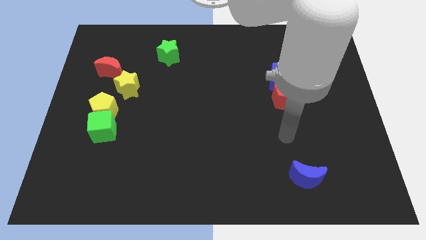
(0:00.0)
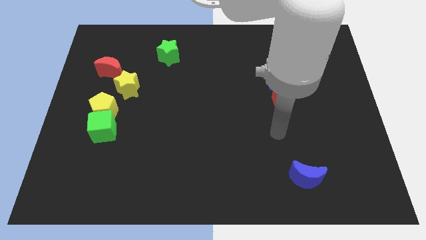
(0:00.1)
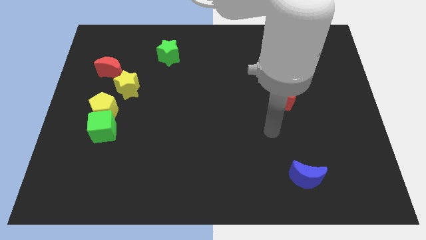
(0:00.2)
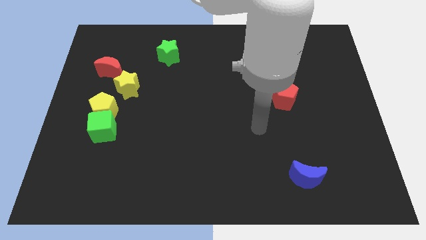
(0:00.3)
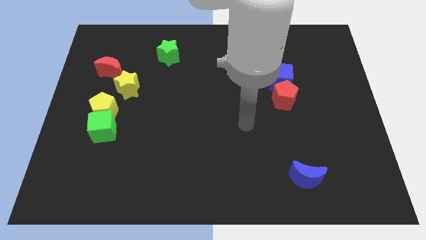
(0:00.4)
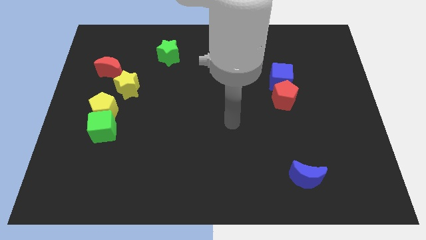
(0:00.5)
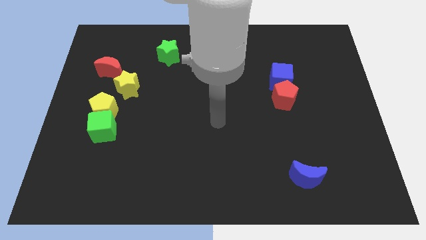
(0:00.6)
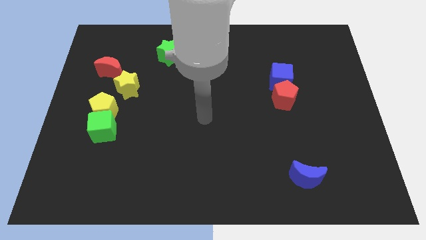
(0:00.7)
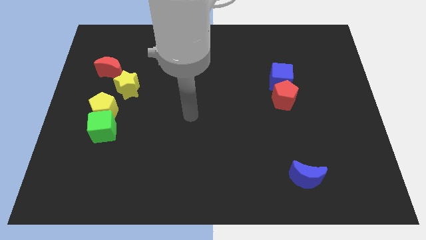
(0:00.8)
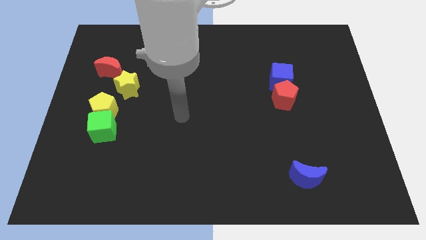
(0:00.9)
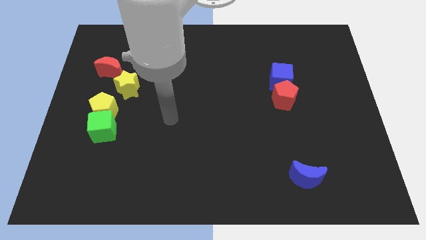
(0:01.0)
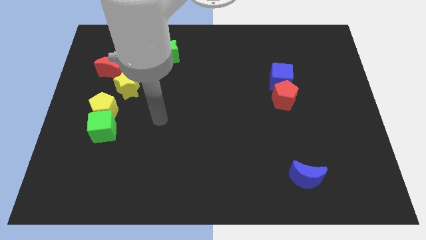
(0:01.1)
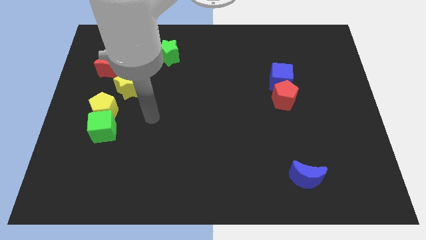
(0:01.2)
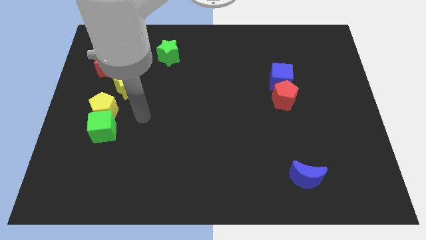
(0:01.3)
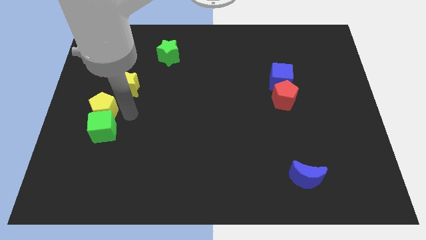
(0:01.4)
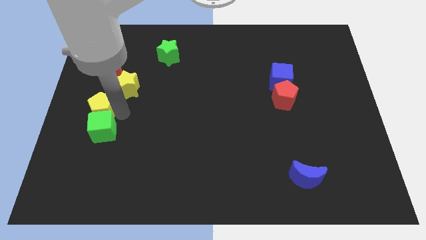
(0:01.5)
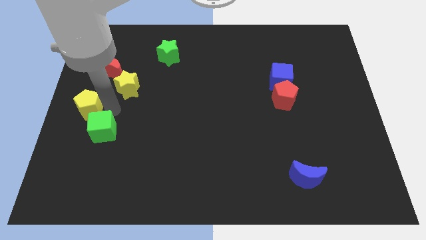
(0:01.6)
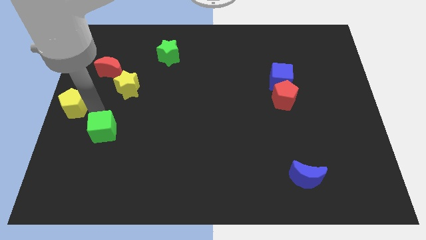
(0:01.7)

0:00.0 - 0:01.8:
pull the green cube apart from the yellow pentagon

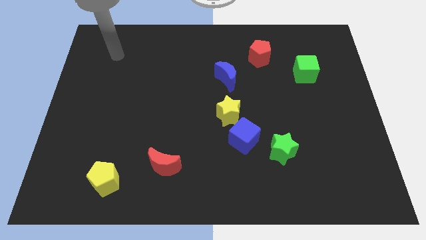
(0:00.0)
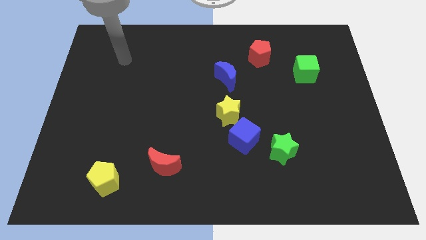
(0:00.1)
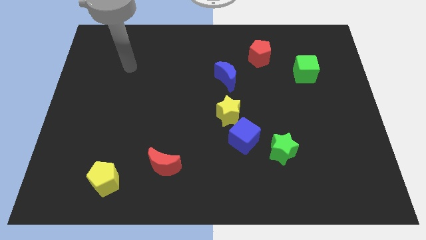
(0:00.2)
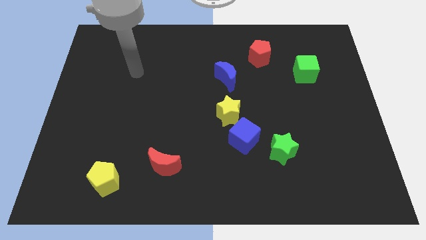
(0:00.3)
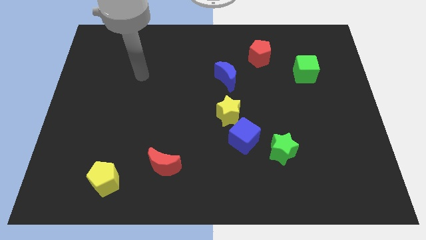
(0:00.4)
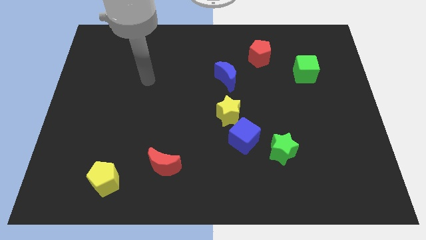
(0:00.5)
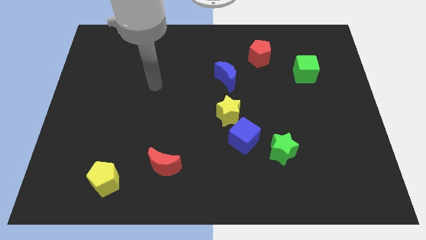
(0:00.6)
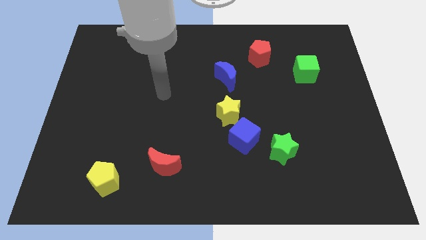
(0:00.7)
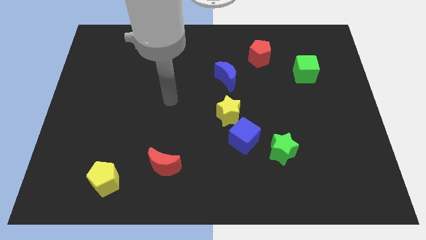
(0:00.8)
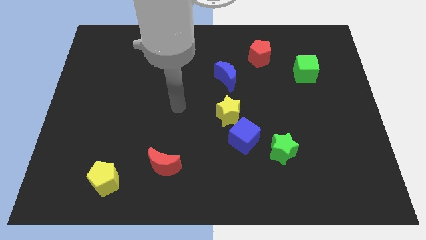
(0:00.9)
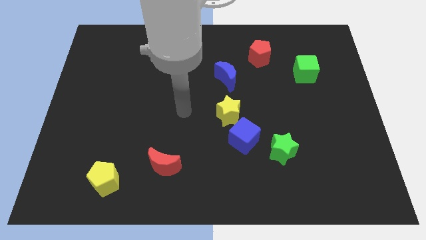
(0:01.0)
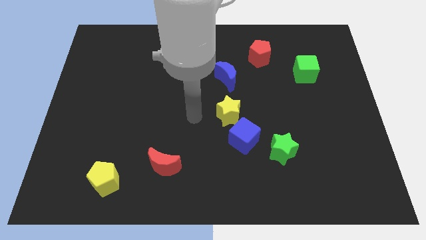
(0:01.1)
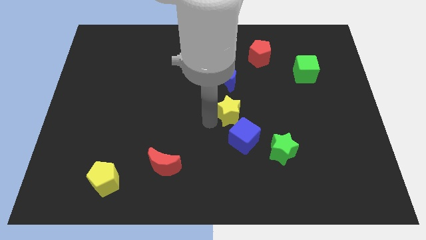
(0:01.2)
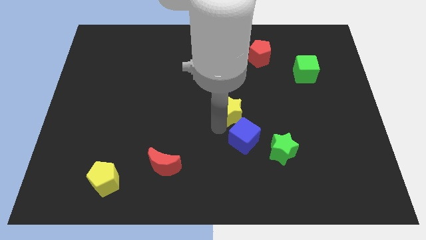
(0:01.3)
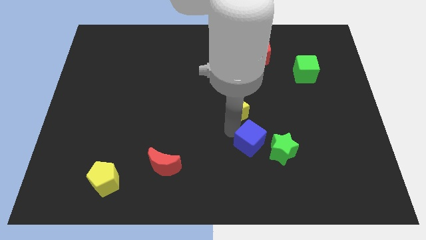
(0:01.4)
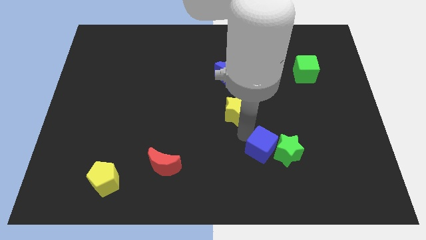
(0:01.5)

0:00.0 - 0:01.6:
move the yellow star away from the blue cube

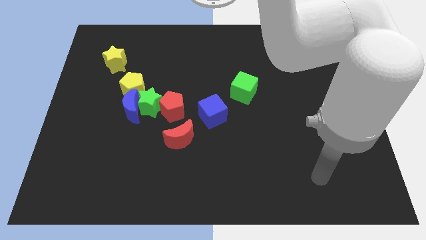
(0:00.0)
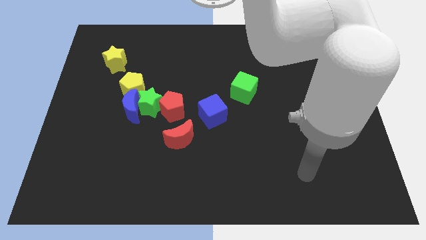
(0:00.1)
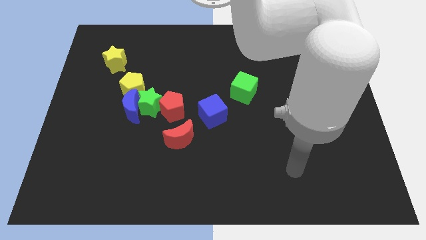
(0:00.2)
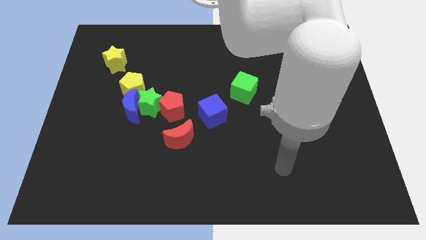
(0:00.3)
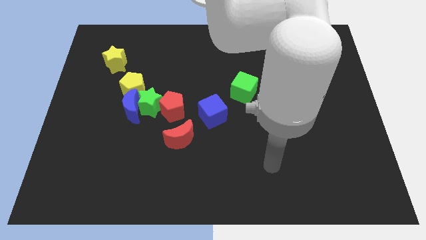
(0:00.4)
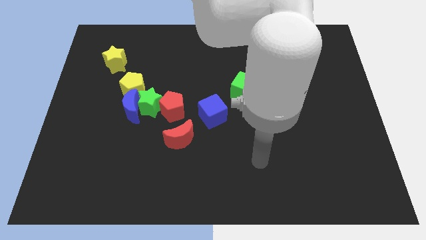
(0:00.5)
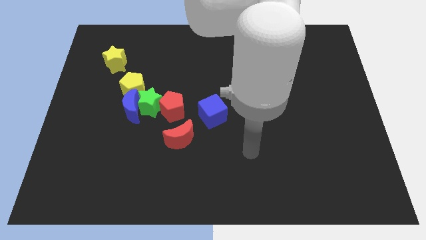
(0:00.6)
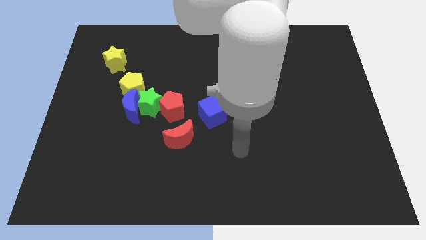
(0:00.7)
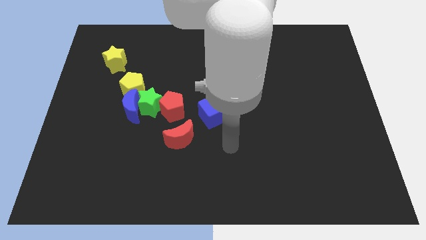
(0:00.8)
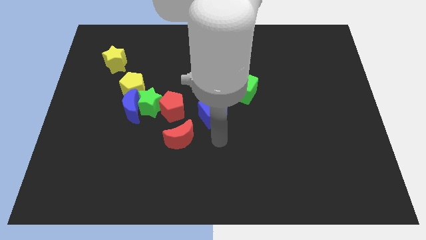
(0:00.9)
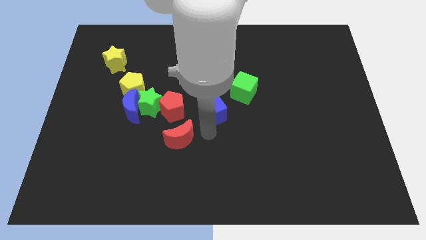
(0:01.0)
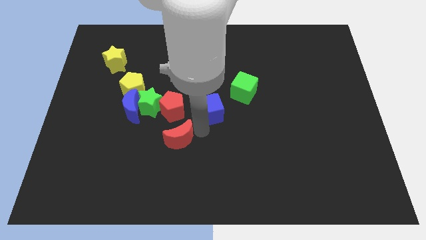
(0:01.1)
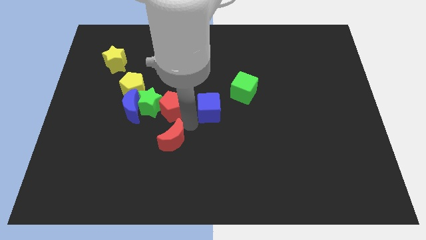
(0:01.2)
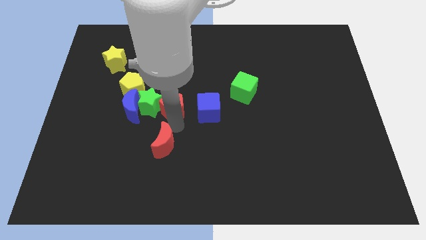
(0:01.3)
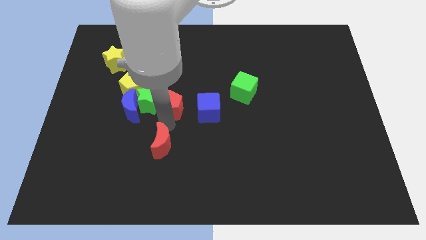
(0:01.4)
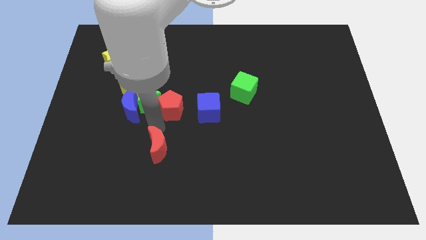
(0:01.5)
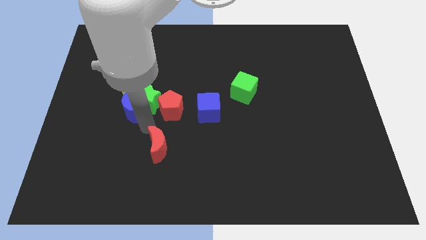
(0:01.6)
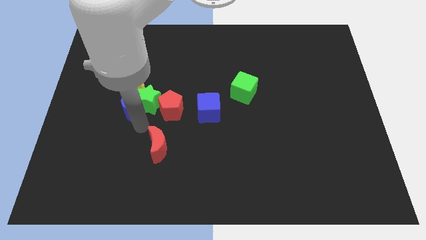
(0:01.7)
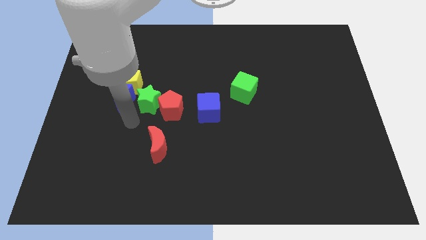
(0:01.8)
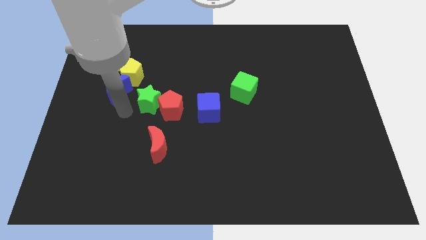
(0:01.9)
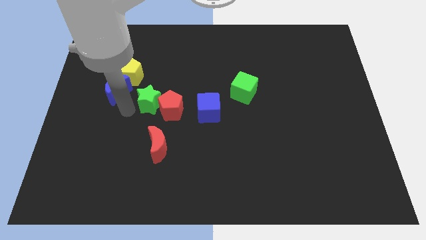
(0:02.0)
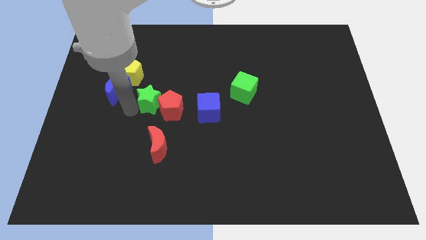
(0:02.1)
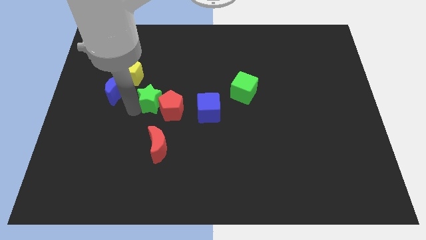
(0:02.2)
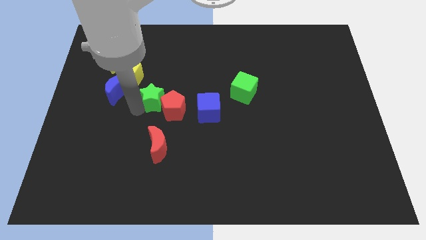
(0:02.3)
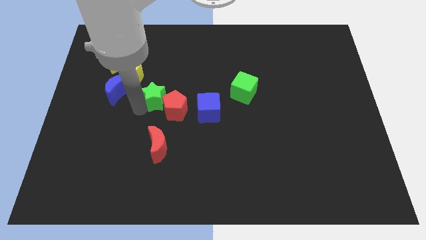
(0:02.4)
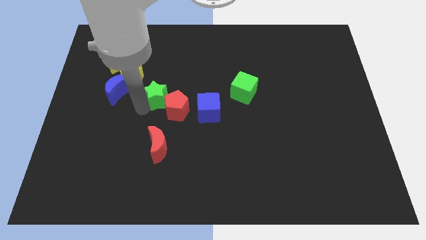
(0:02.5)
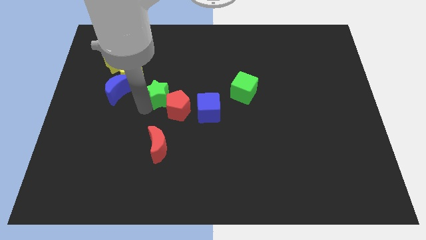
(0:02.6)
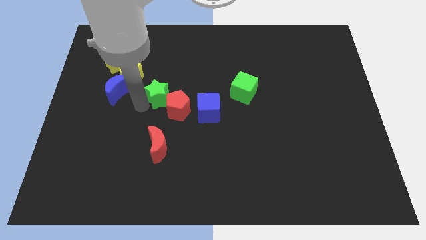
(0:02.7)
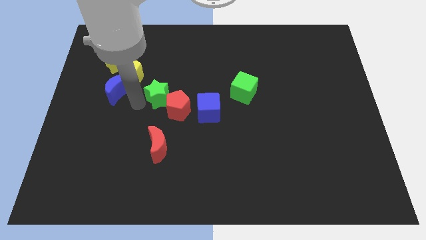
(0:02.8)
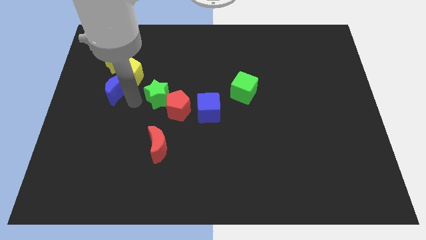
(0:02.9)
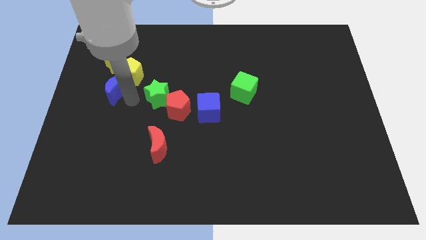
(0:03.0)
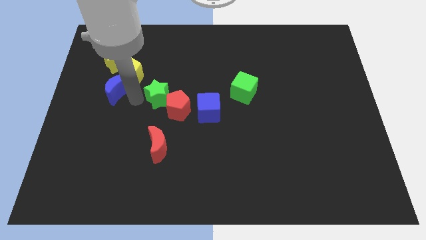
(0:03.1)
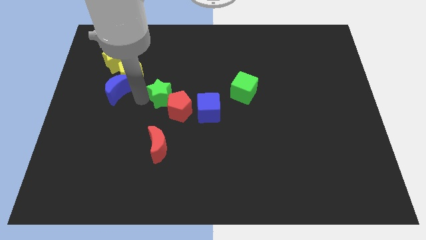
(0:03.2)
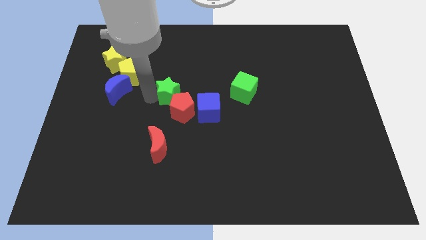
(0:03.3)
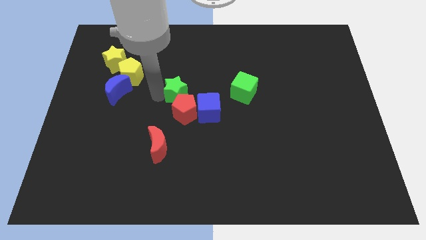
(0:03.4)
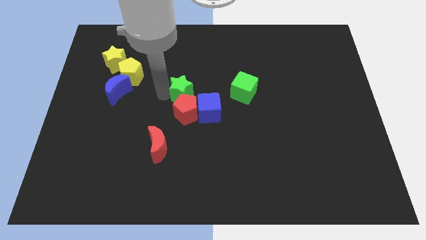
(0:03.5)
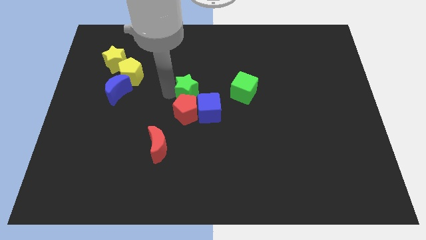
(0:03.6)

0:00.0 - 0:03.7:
move the green star away from the clump

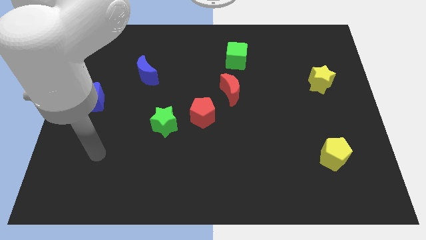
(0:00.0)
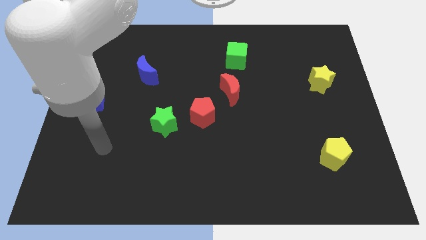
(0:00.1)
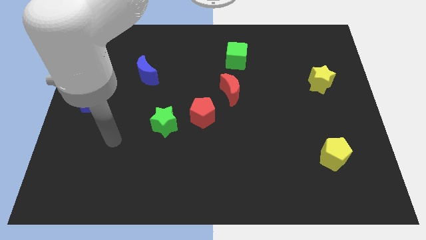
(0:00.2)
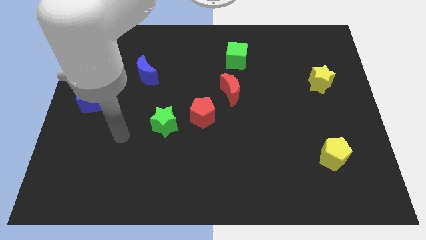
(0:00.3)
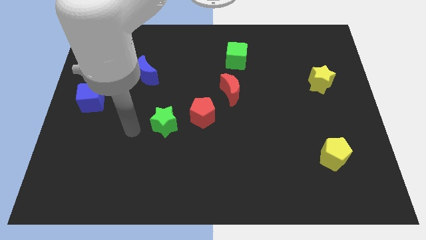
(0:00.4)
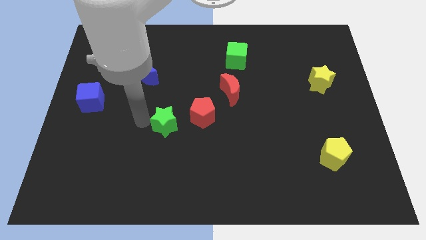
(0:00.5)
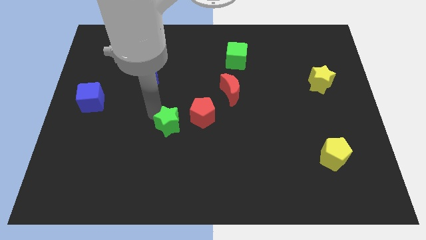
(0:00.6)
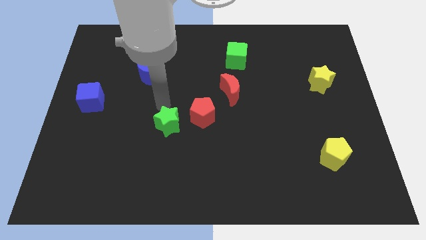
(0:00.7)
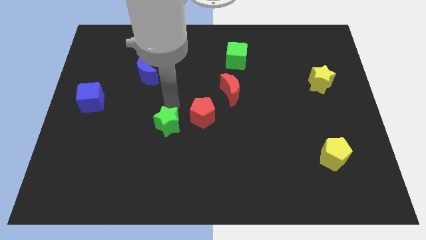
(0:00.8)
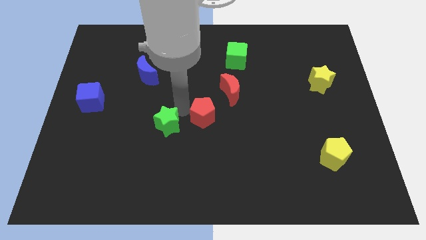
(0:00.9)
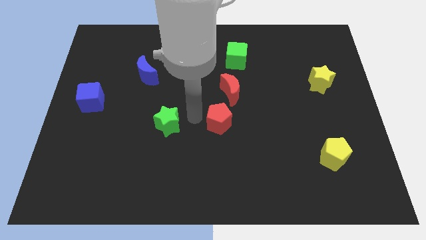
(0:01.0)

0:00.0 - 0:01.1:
move the green star away from the red pentagon

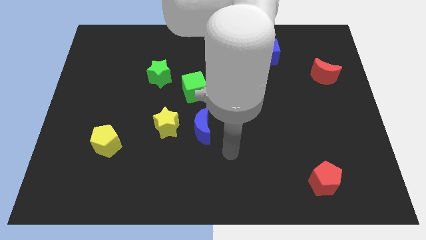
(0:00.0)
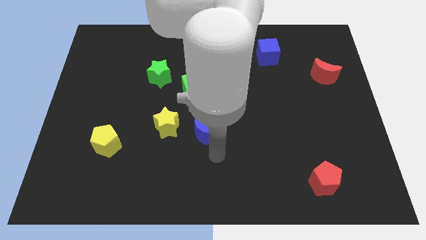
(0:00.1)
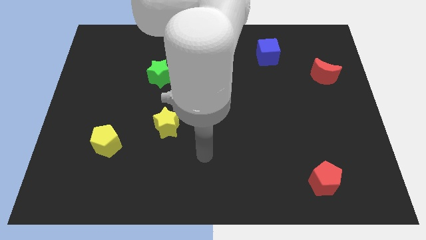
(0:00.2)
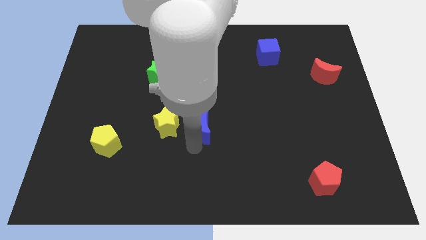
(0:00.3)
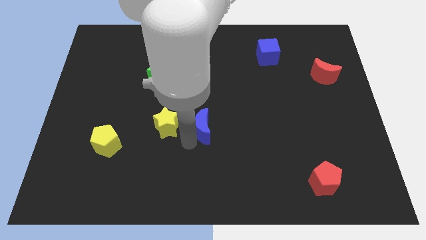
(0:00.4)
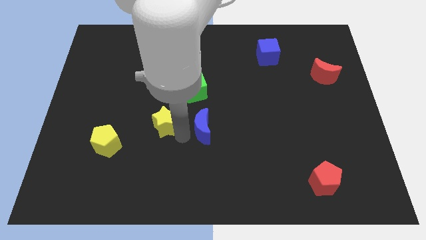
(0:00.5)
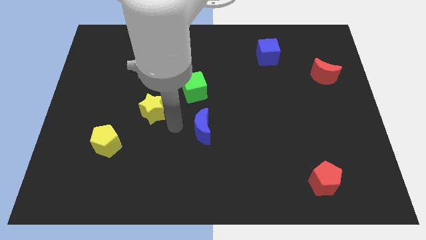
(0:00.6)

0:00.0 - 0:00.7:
move the blue moon away from the yellow star

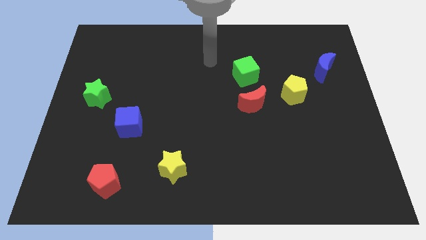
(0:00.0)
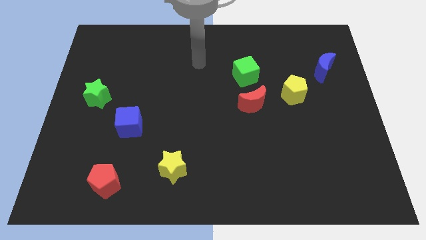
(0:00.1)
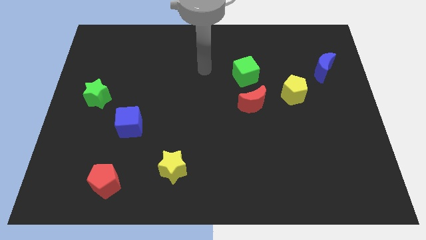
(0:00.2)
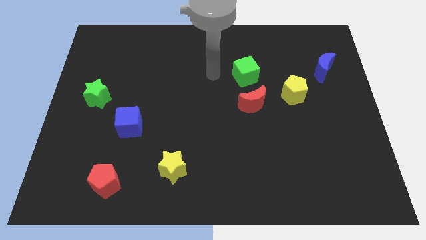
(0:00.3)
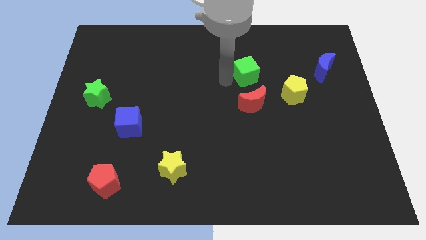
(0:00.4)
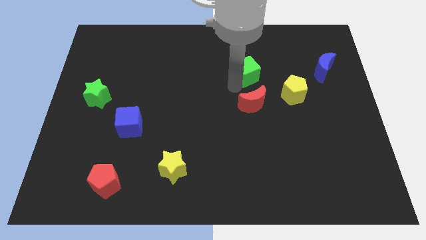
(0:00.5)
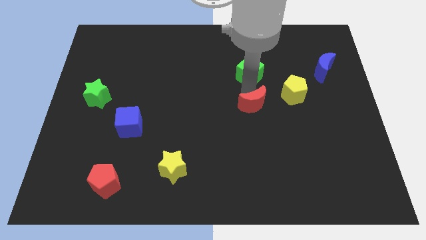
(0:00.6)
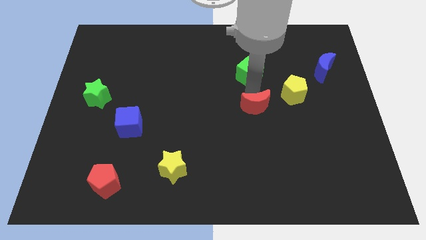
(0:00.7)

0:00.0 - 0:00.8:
move the green cube away from the red moon
